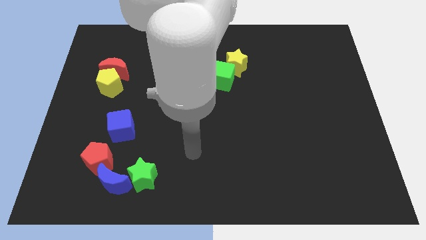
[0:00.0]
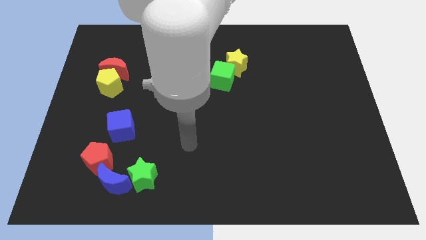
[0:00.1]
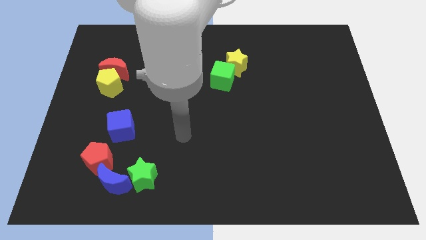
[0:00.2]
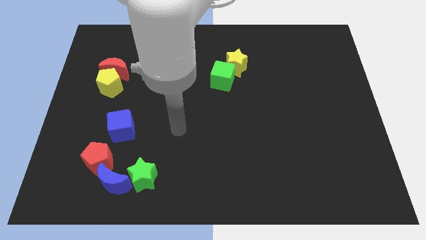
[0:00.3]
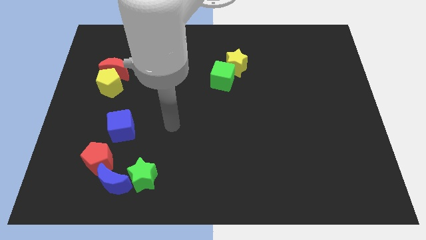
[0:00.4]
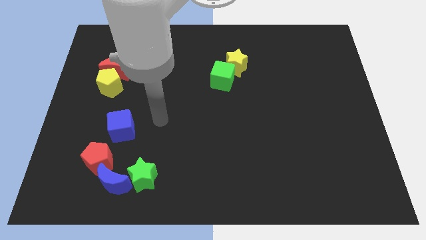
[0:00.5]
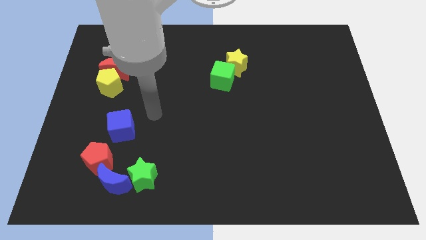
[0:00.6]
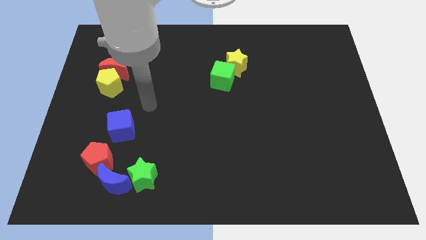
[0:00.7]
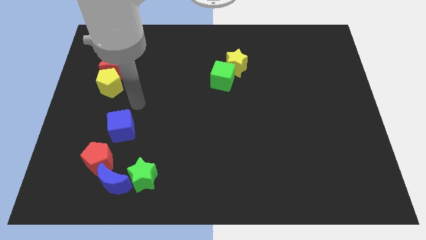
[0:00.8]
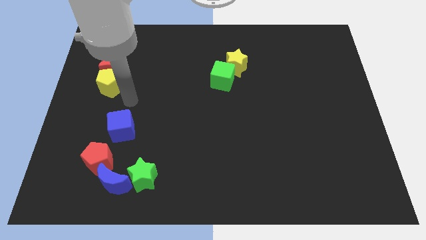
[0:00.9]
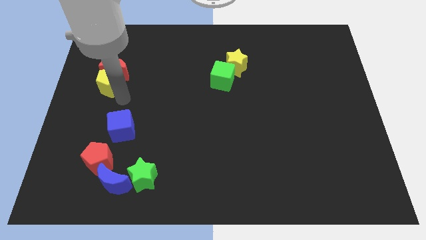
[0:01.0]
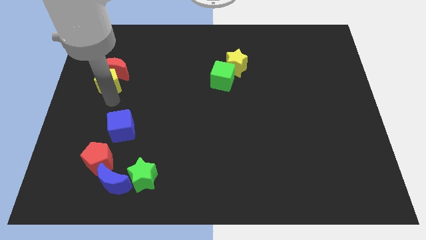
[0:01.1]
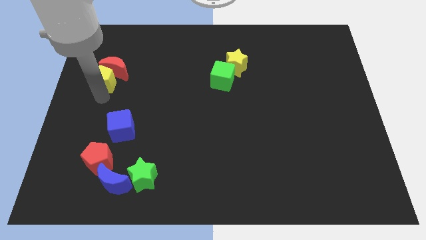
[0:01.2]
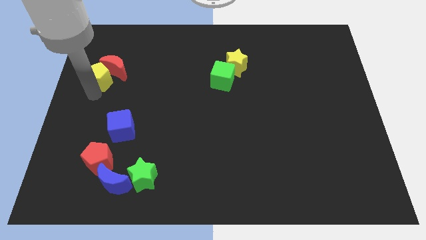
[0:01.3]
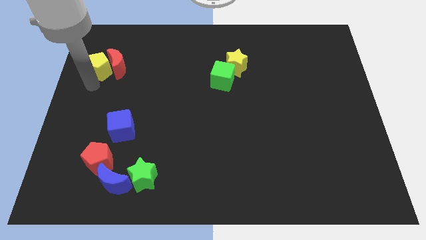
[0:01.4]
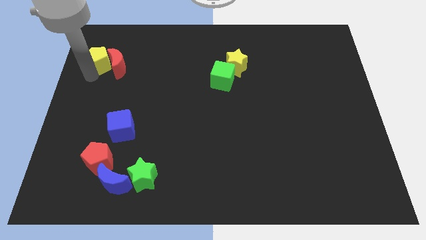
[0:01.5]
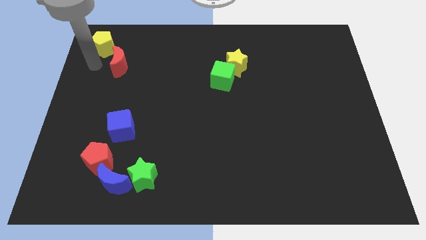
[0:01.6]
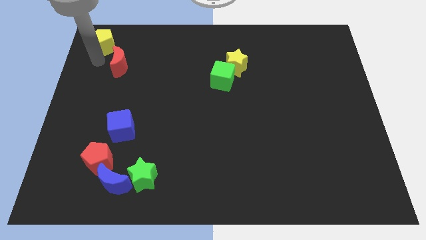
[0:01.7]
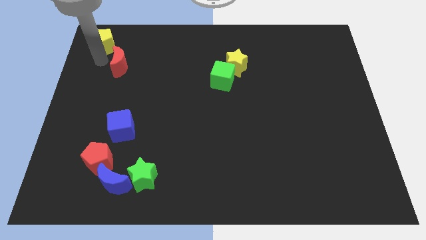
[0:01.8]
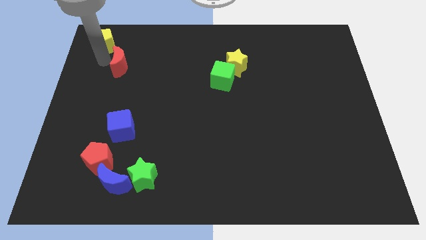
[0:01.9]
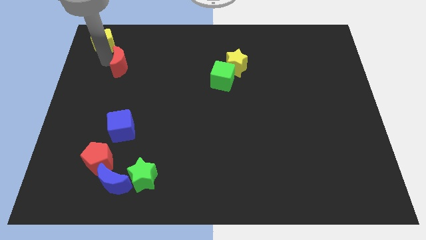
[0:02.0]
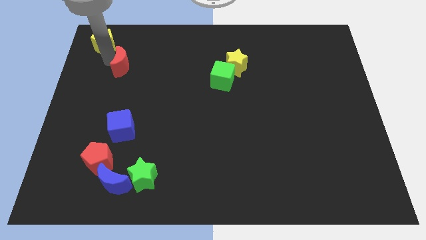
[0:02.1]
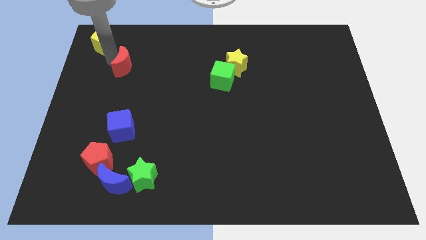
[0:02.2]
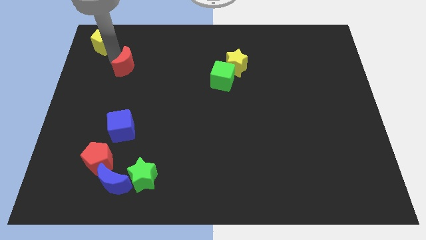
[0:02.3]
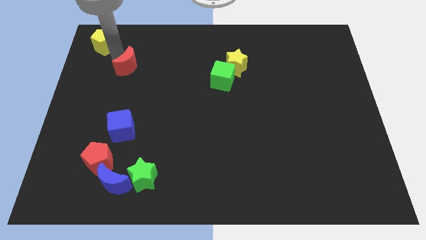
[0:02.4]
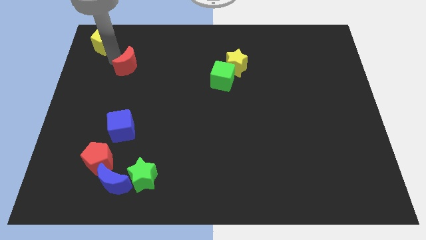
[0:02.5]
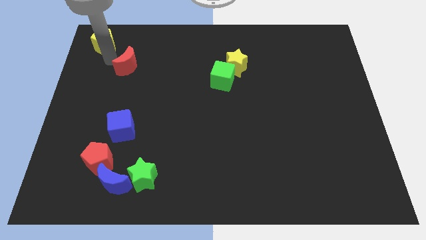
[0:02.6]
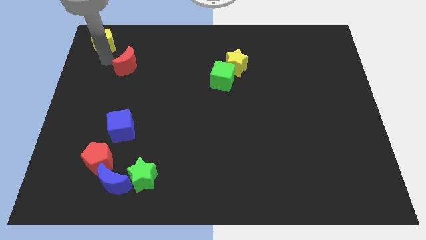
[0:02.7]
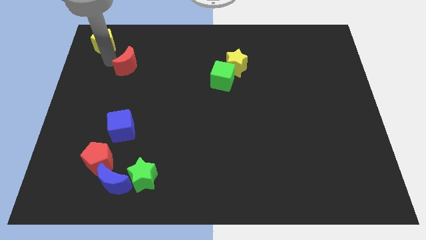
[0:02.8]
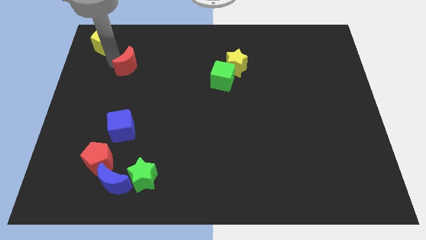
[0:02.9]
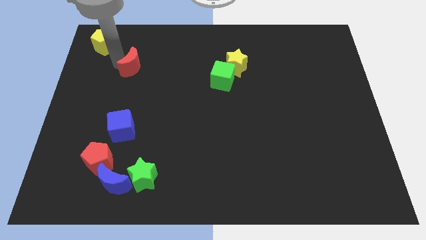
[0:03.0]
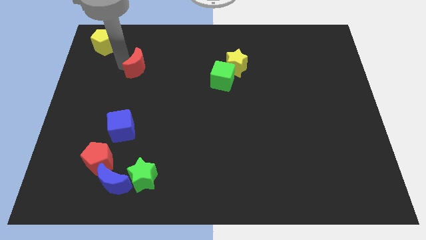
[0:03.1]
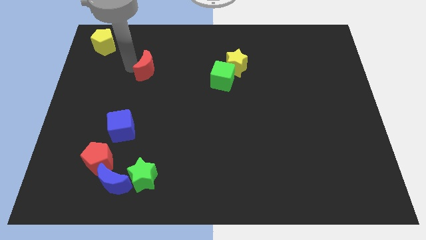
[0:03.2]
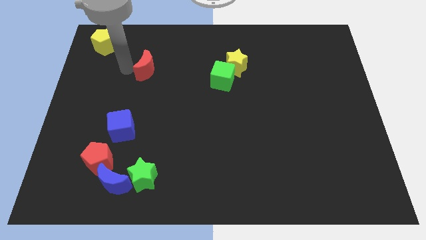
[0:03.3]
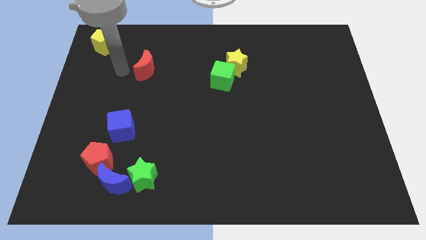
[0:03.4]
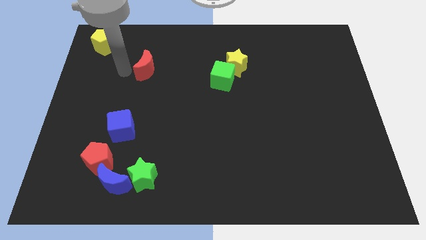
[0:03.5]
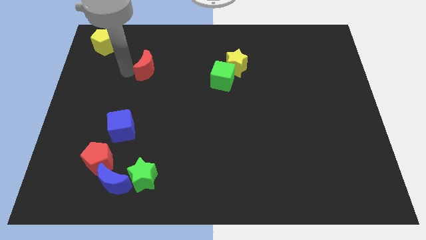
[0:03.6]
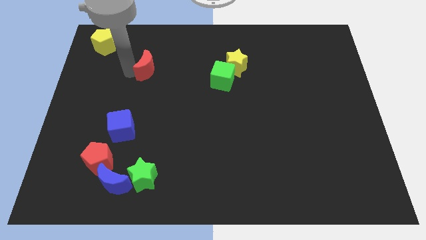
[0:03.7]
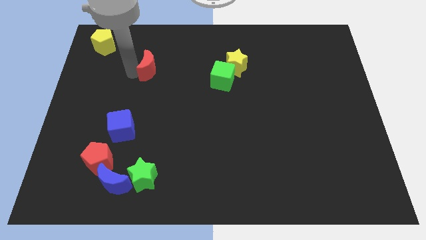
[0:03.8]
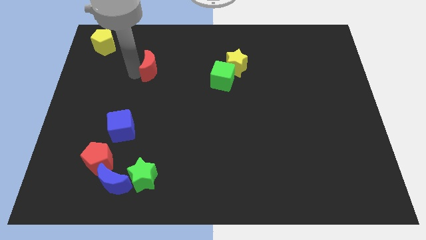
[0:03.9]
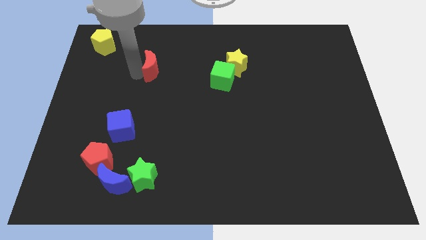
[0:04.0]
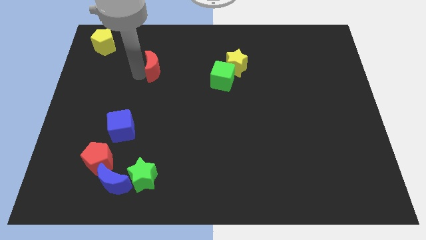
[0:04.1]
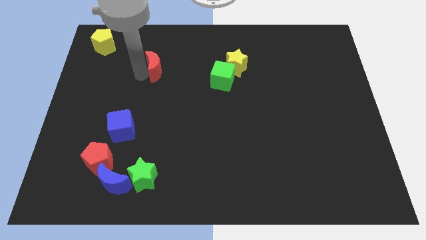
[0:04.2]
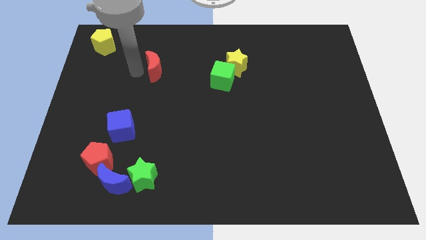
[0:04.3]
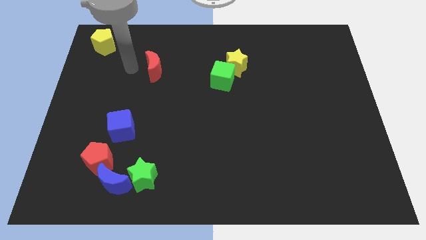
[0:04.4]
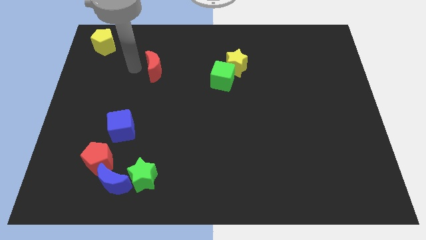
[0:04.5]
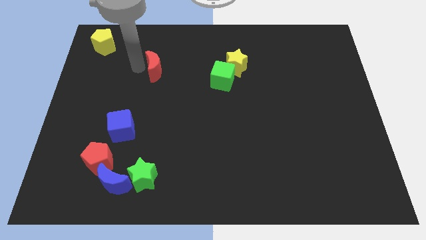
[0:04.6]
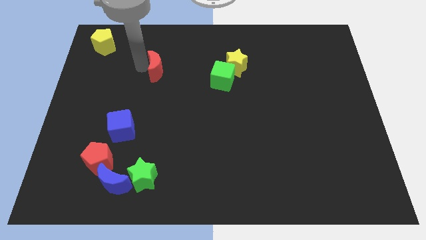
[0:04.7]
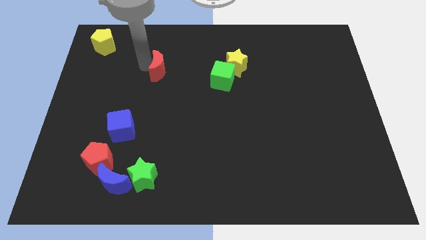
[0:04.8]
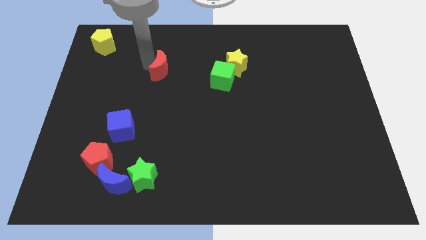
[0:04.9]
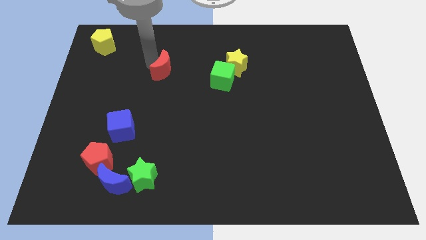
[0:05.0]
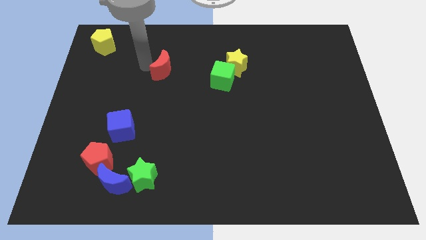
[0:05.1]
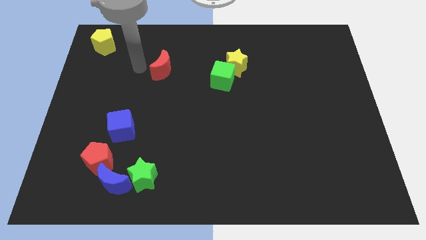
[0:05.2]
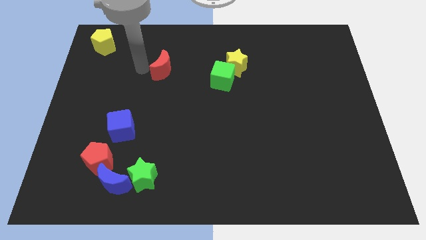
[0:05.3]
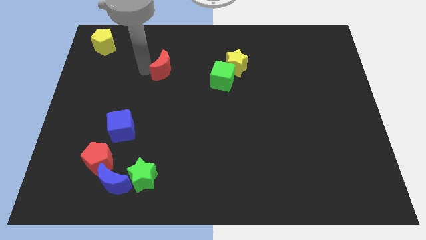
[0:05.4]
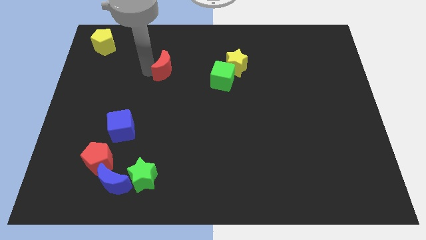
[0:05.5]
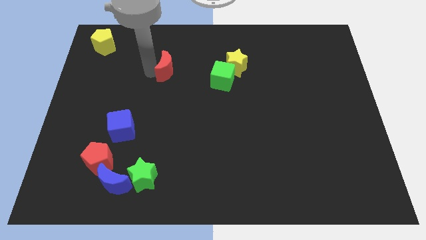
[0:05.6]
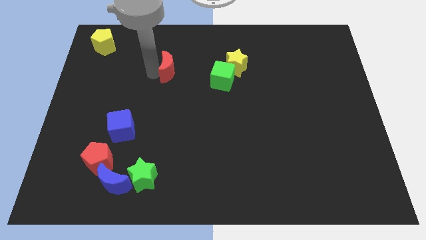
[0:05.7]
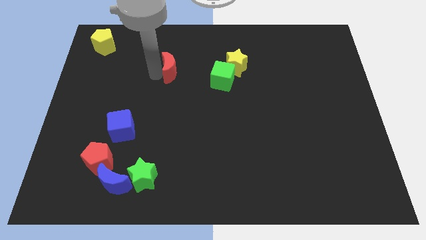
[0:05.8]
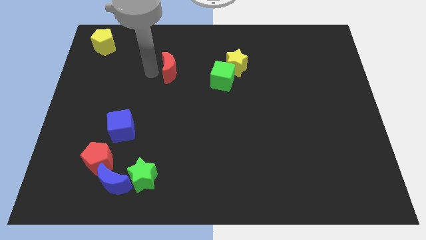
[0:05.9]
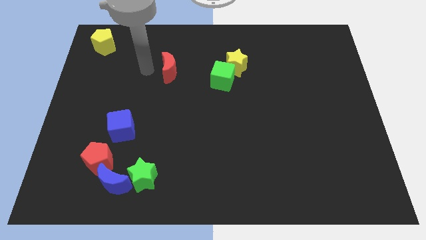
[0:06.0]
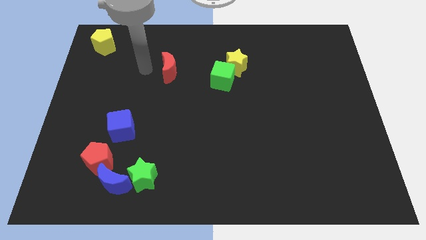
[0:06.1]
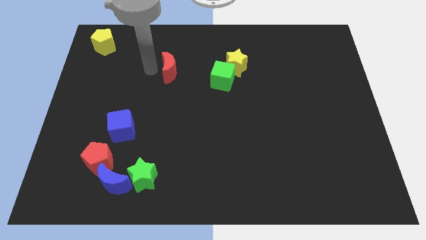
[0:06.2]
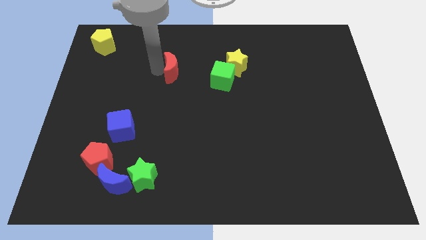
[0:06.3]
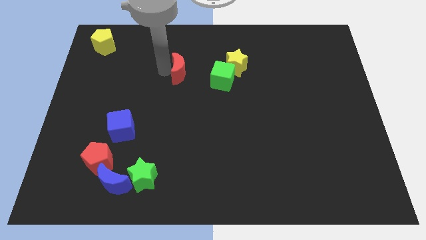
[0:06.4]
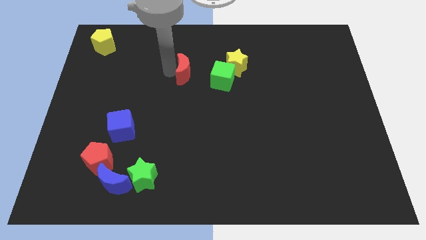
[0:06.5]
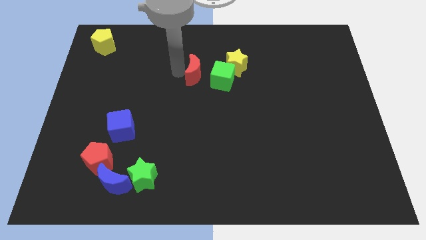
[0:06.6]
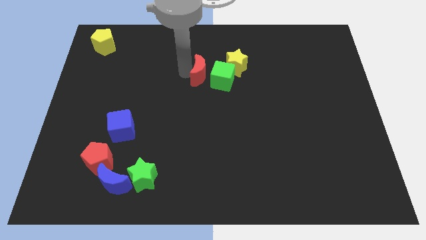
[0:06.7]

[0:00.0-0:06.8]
push the red moon close to the green cube

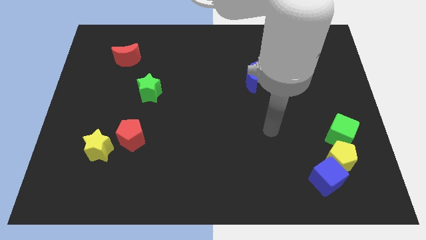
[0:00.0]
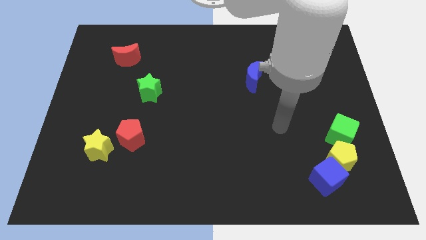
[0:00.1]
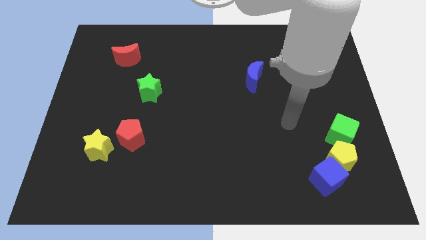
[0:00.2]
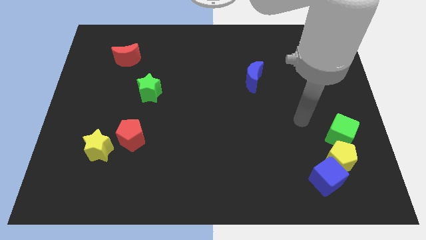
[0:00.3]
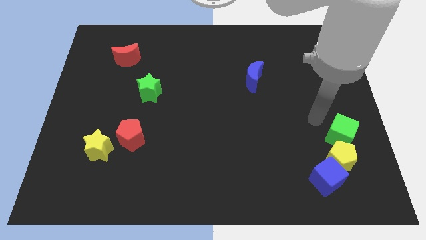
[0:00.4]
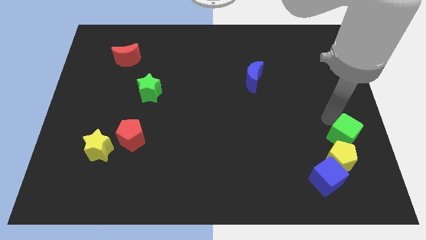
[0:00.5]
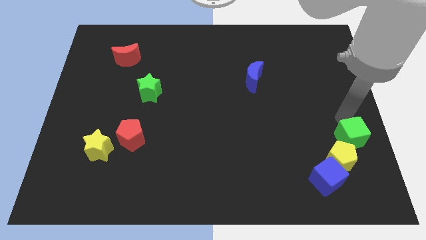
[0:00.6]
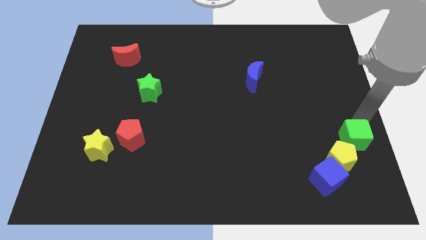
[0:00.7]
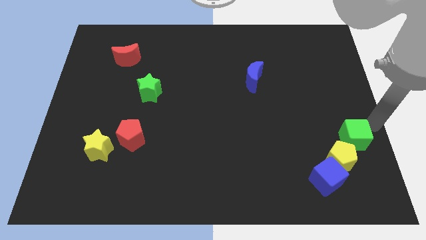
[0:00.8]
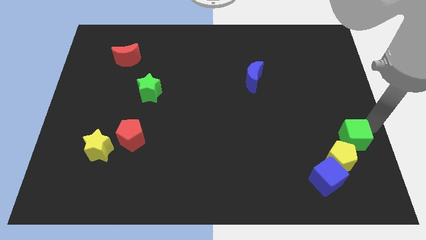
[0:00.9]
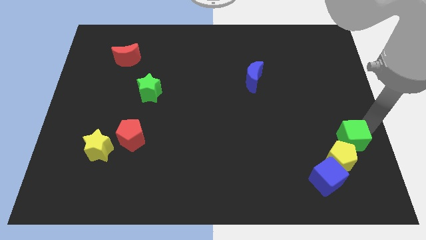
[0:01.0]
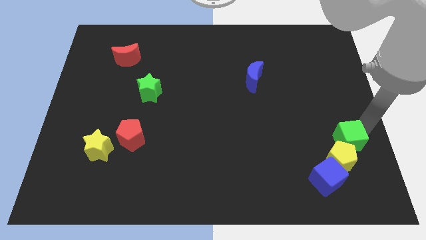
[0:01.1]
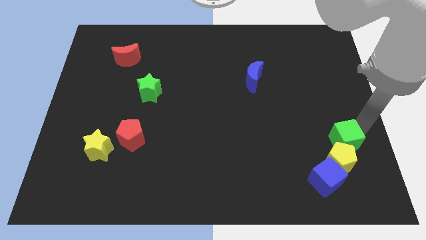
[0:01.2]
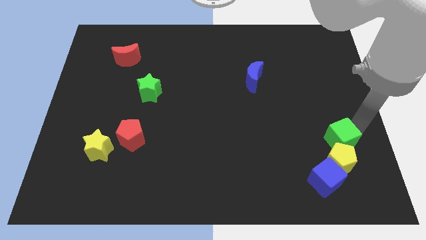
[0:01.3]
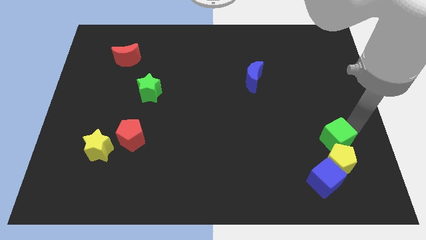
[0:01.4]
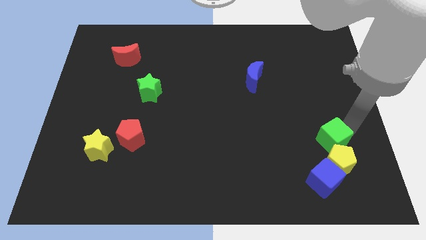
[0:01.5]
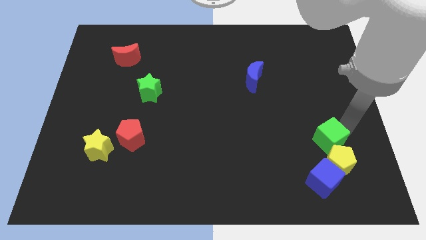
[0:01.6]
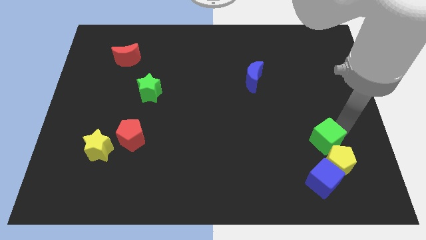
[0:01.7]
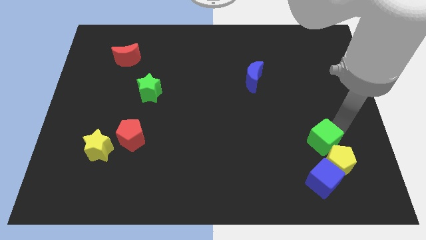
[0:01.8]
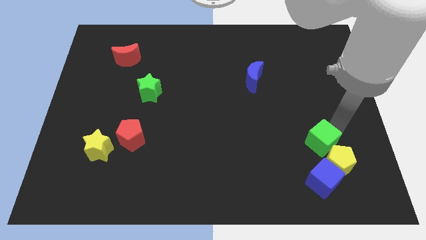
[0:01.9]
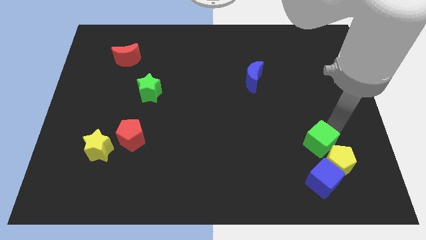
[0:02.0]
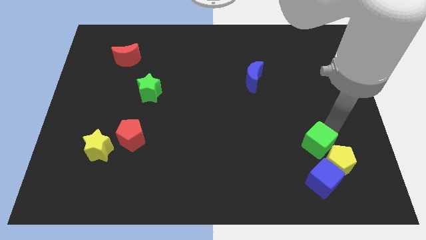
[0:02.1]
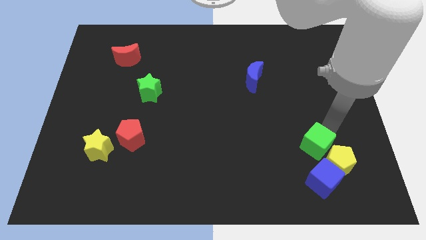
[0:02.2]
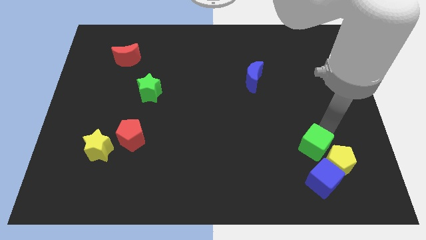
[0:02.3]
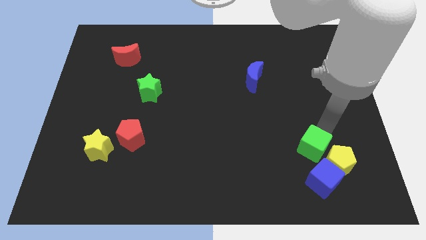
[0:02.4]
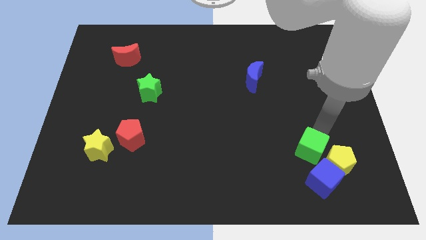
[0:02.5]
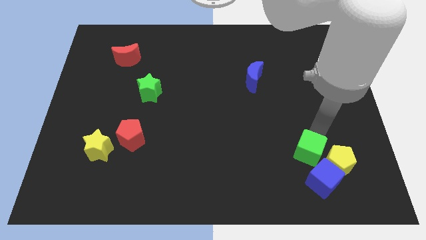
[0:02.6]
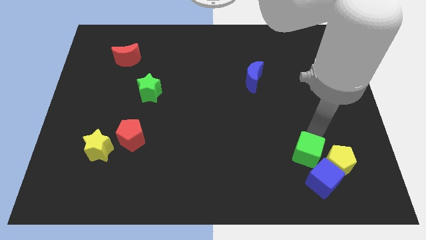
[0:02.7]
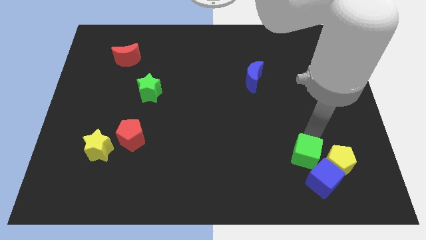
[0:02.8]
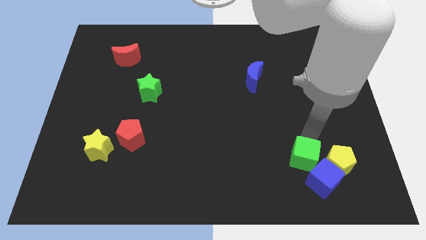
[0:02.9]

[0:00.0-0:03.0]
push the green cube next to the blue cube
